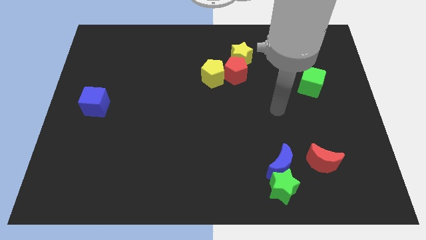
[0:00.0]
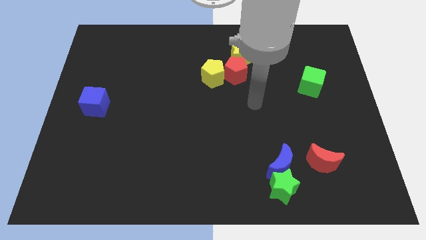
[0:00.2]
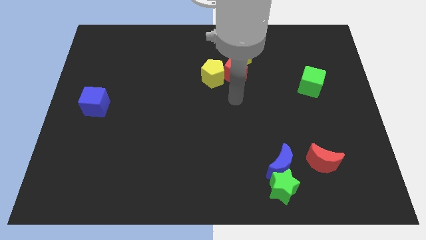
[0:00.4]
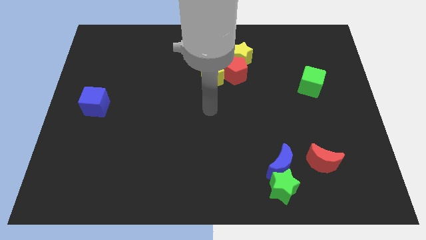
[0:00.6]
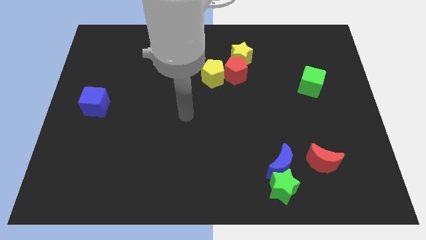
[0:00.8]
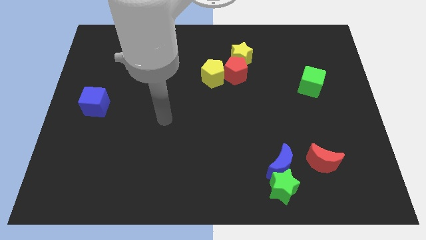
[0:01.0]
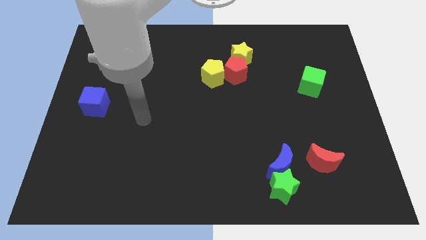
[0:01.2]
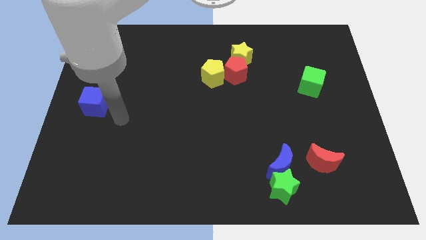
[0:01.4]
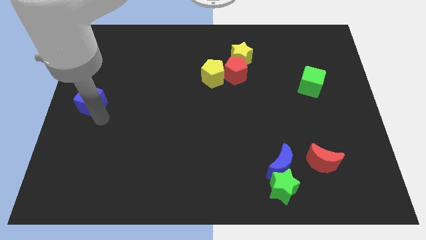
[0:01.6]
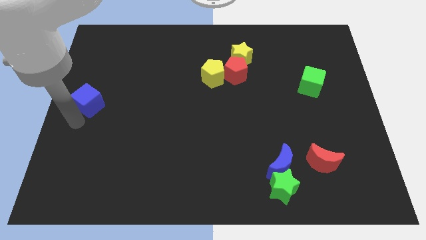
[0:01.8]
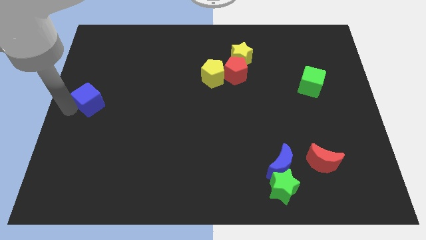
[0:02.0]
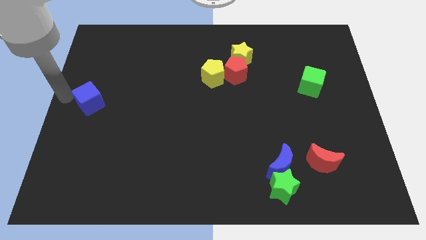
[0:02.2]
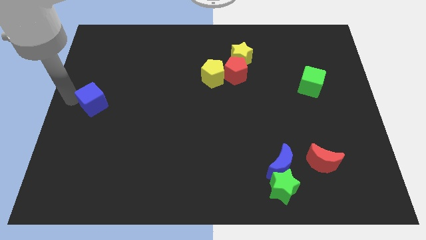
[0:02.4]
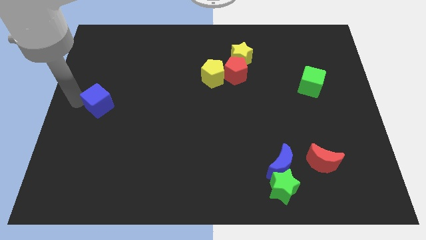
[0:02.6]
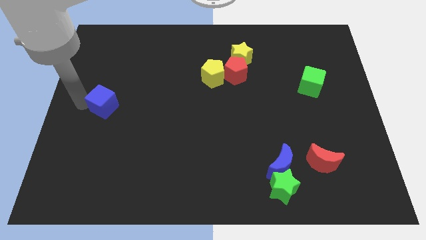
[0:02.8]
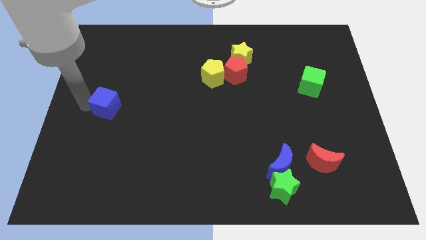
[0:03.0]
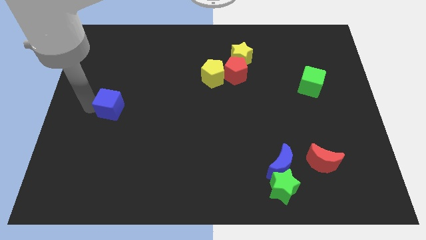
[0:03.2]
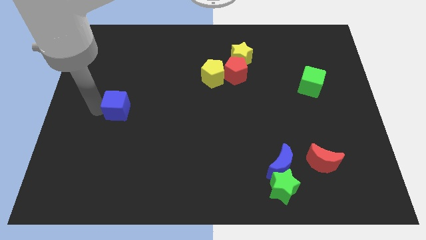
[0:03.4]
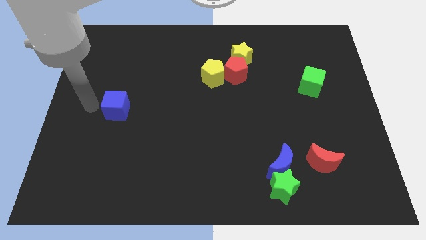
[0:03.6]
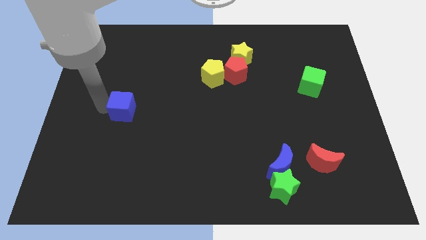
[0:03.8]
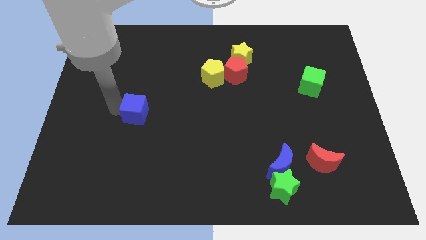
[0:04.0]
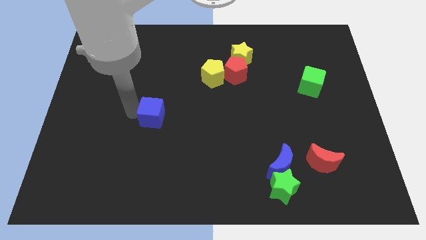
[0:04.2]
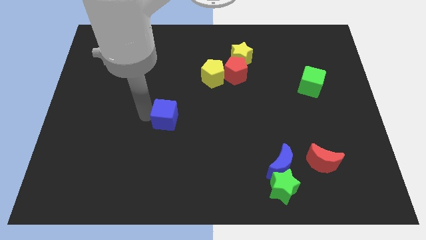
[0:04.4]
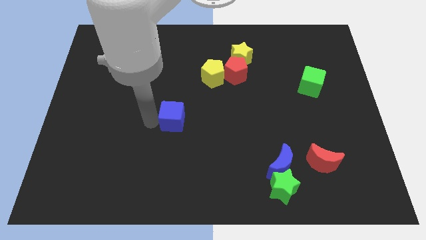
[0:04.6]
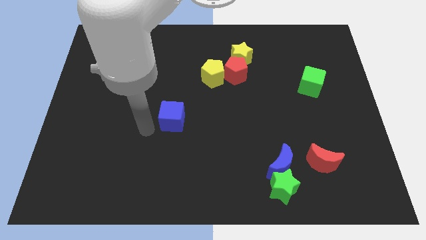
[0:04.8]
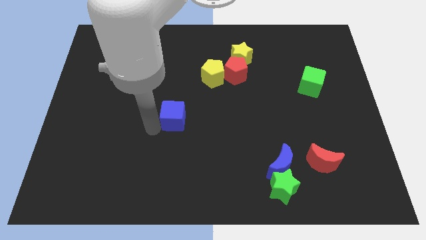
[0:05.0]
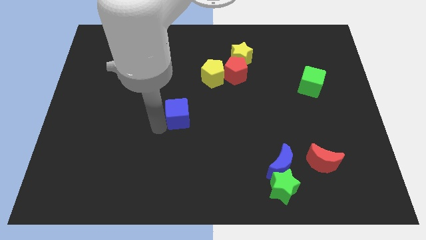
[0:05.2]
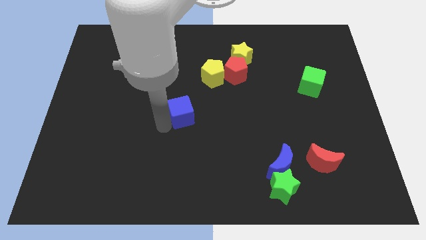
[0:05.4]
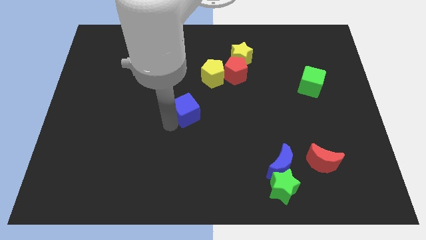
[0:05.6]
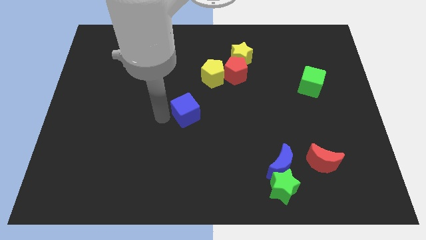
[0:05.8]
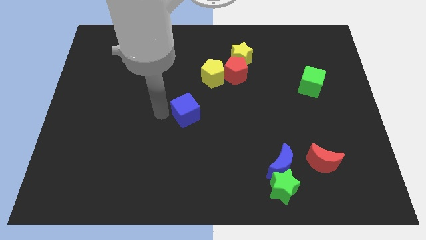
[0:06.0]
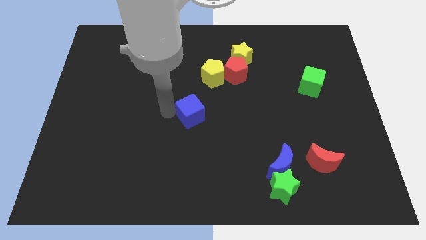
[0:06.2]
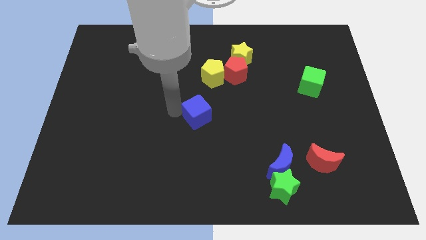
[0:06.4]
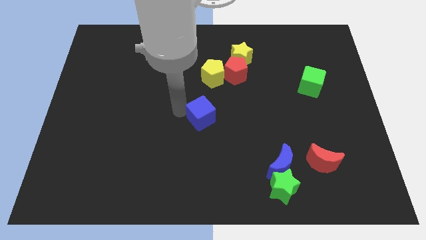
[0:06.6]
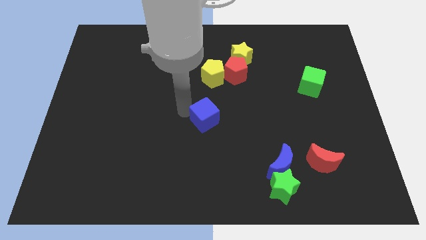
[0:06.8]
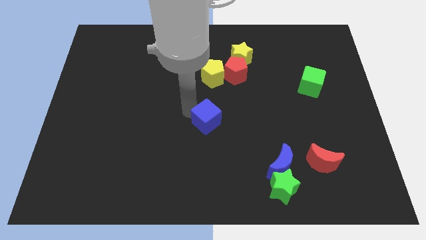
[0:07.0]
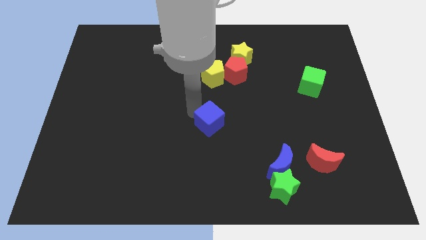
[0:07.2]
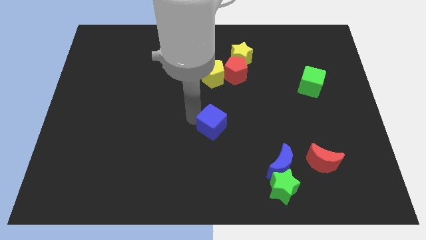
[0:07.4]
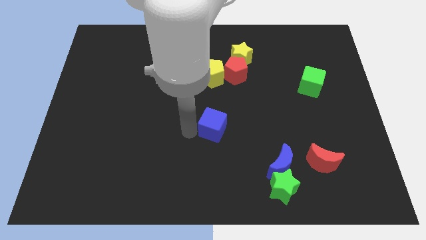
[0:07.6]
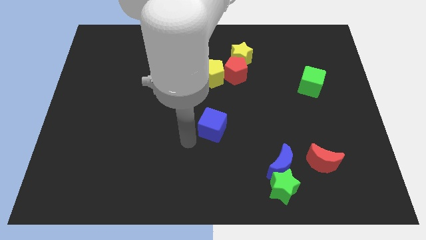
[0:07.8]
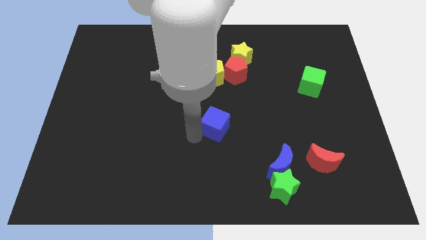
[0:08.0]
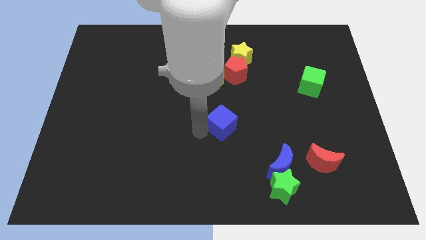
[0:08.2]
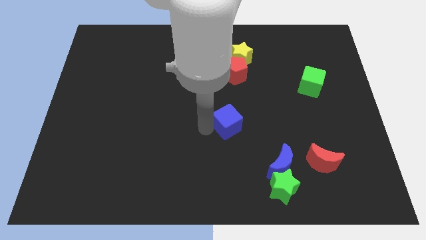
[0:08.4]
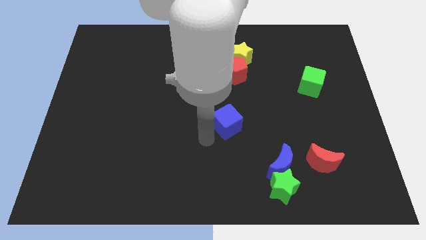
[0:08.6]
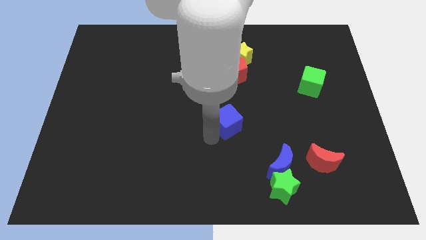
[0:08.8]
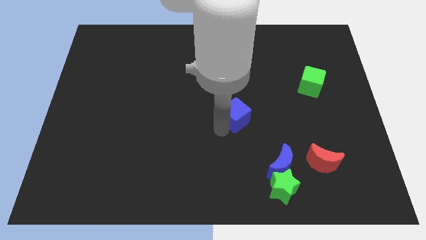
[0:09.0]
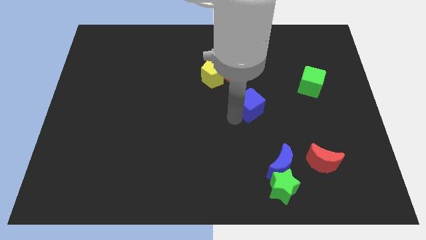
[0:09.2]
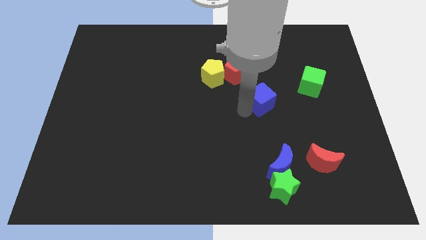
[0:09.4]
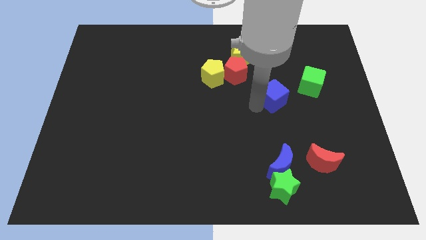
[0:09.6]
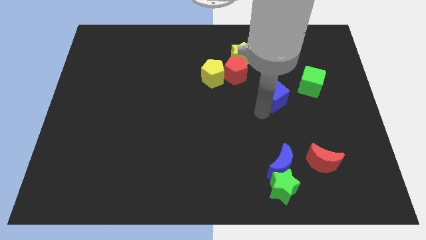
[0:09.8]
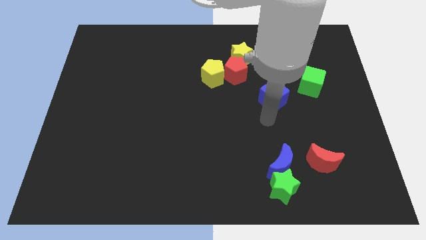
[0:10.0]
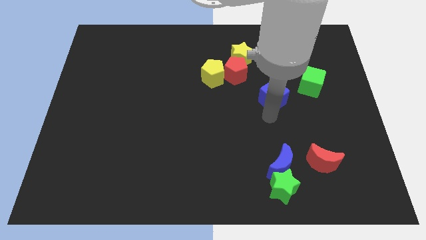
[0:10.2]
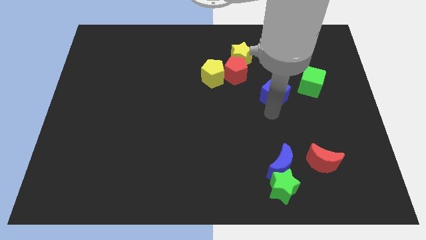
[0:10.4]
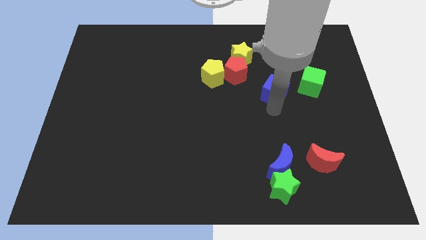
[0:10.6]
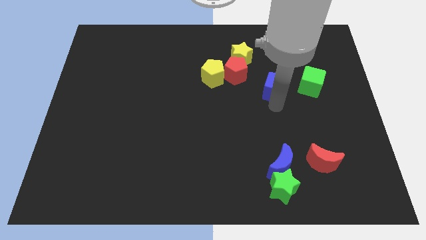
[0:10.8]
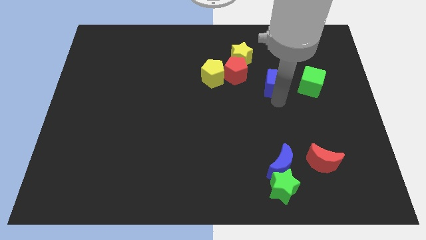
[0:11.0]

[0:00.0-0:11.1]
move the blue cube to the right of the red pentagon

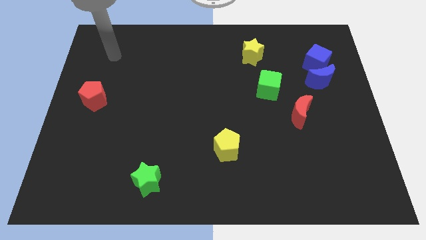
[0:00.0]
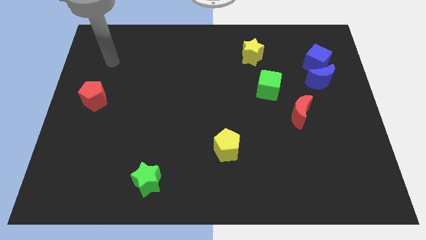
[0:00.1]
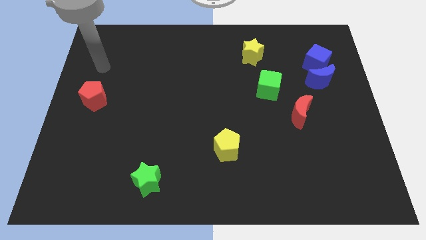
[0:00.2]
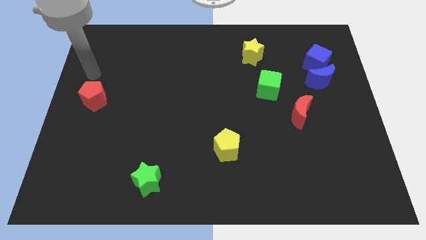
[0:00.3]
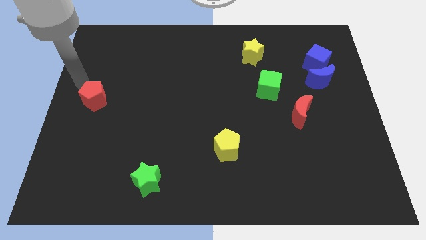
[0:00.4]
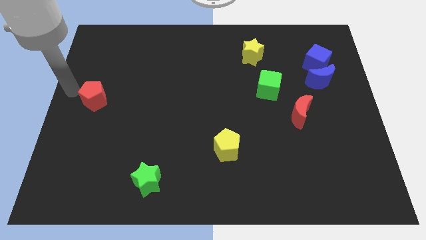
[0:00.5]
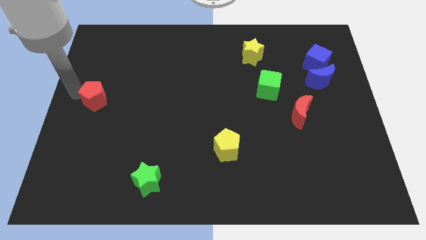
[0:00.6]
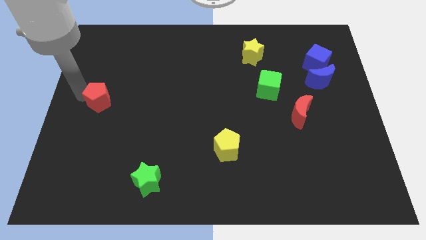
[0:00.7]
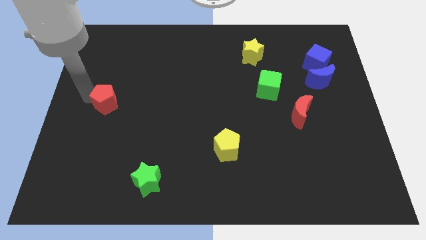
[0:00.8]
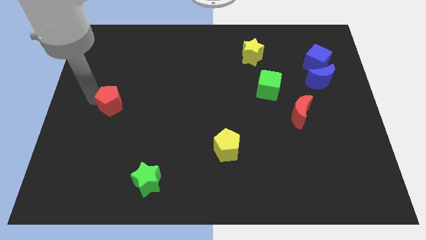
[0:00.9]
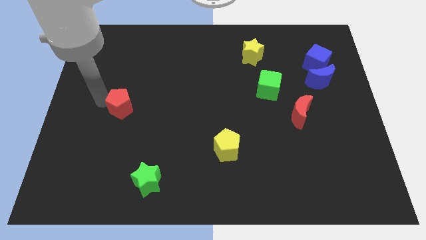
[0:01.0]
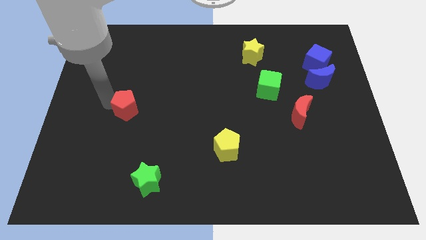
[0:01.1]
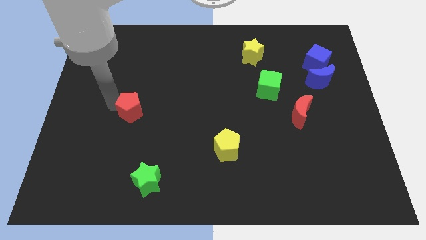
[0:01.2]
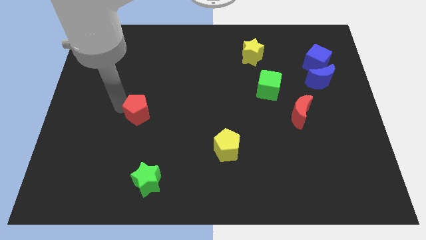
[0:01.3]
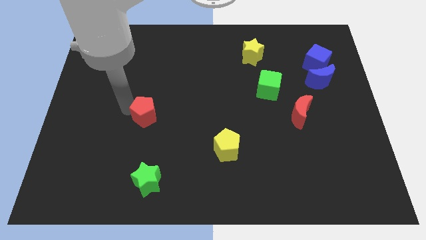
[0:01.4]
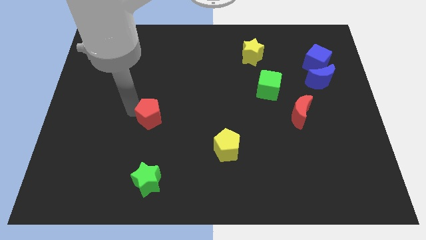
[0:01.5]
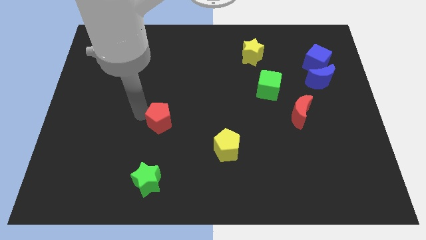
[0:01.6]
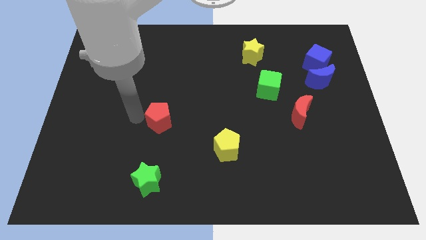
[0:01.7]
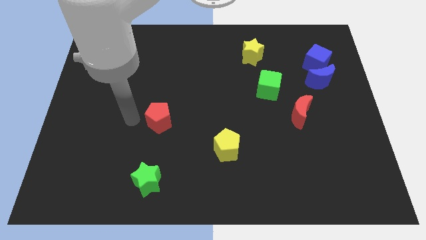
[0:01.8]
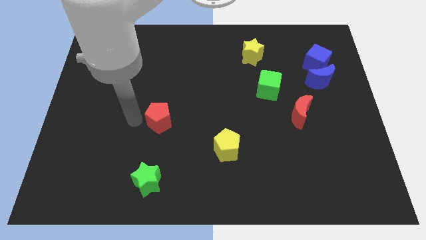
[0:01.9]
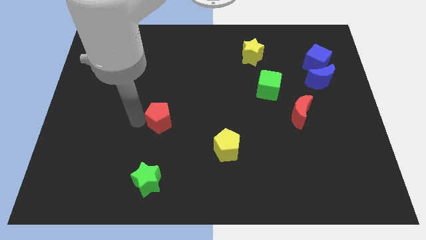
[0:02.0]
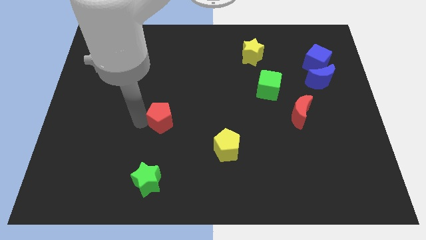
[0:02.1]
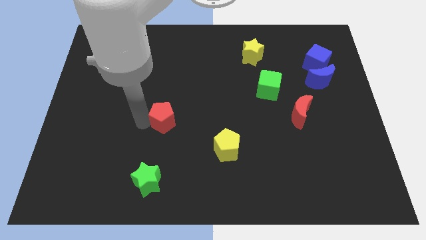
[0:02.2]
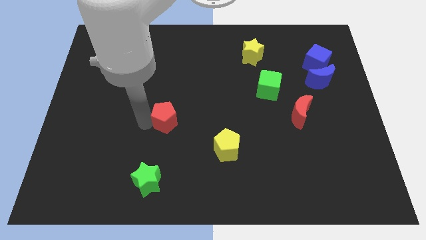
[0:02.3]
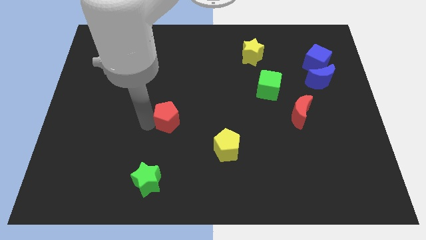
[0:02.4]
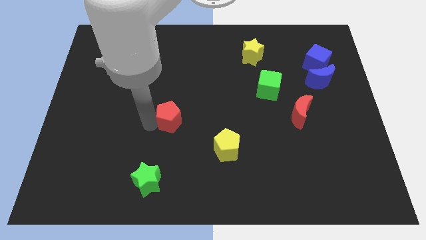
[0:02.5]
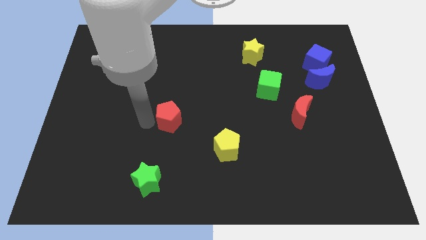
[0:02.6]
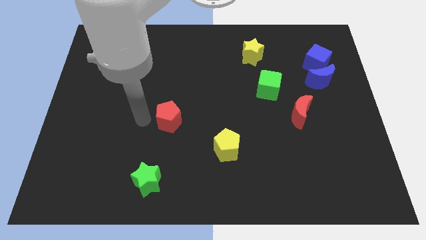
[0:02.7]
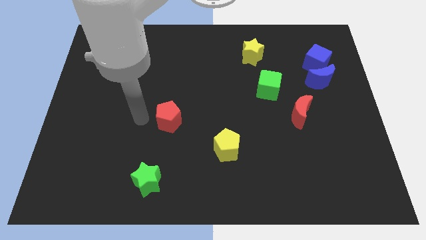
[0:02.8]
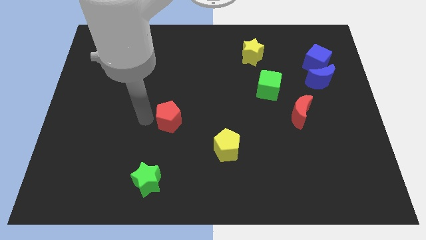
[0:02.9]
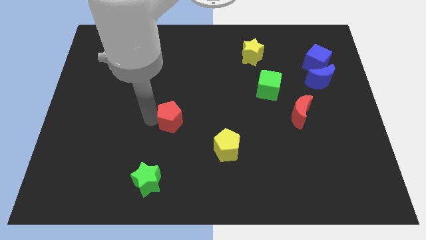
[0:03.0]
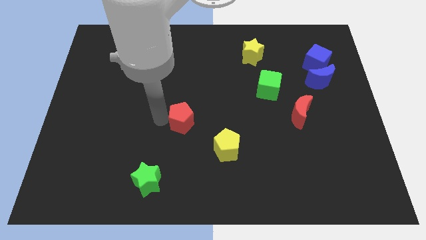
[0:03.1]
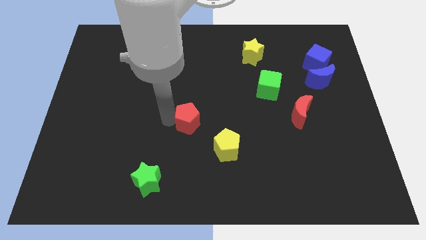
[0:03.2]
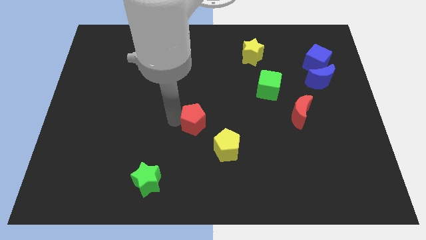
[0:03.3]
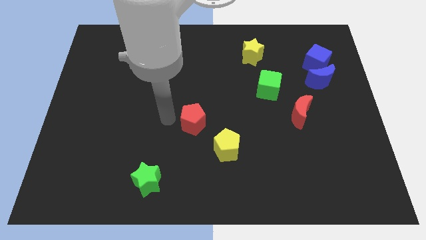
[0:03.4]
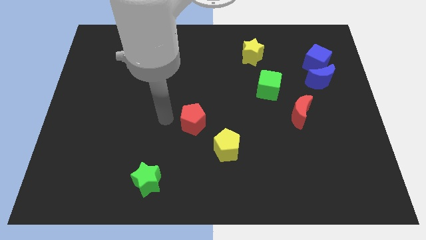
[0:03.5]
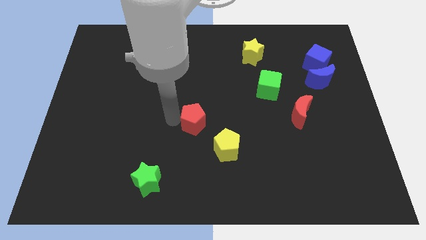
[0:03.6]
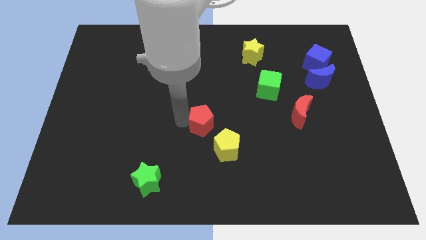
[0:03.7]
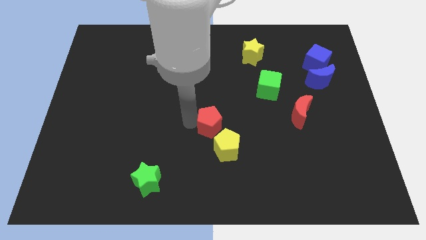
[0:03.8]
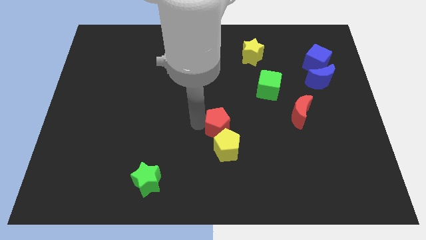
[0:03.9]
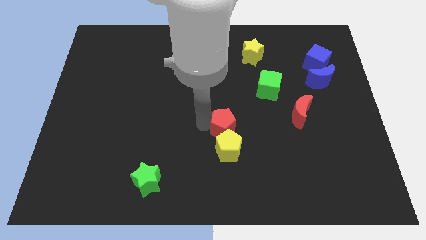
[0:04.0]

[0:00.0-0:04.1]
put the red pentagon diagonally up and to the right of the yellow pentagon
